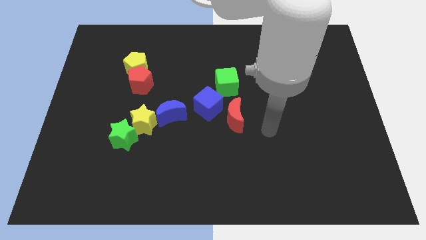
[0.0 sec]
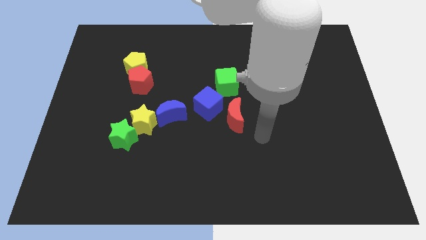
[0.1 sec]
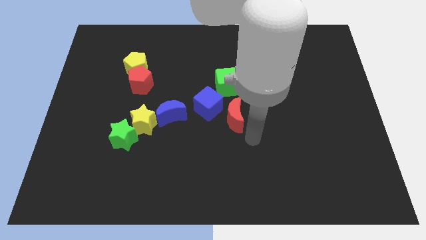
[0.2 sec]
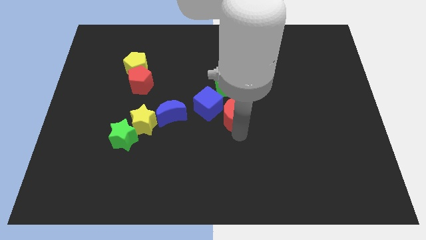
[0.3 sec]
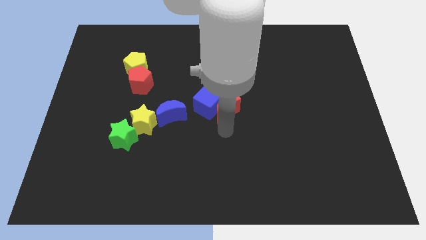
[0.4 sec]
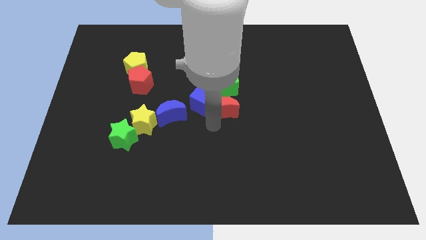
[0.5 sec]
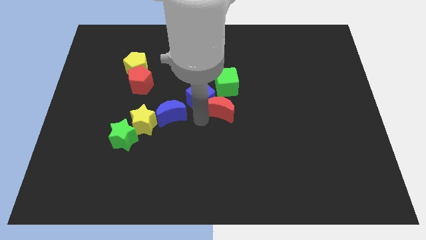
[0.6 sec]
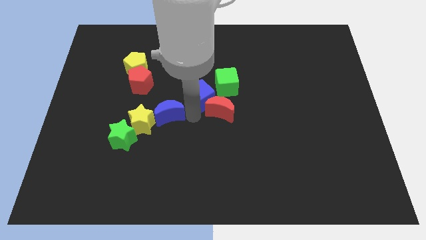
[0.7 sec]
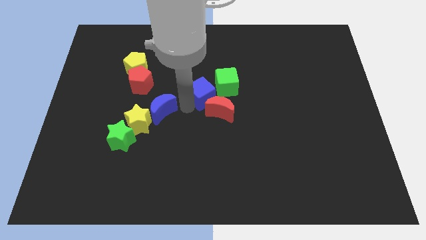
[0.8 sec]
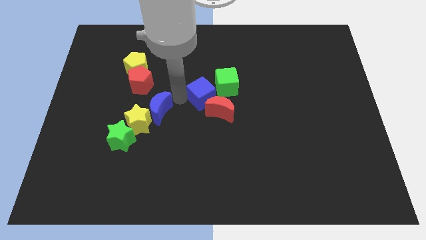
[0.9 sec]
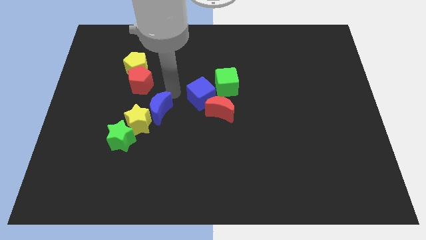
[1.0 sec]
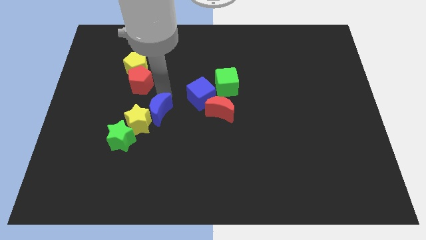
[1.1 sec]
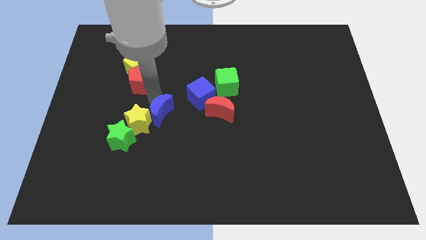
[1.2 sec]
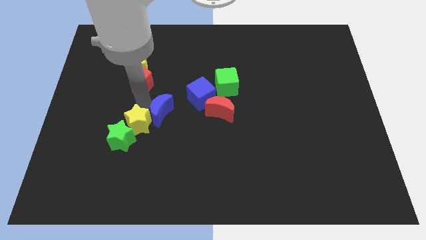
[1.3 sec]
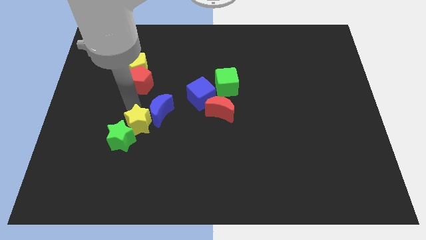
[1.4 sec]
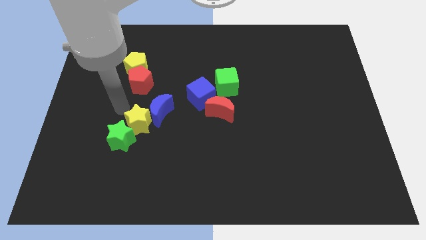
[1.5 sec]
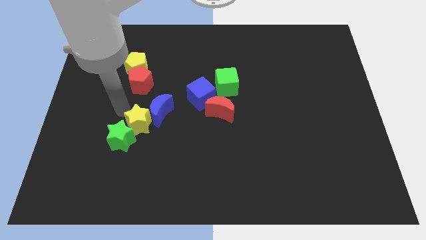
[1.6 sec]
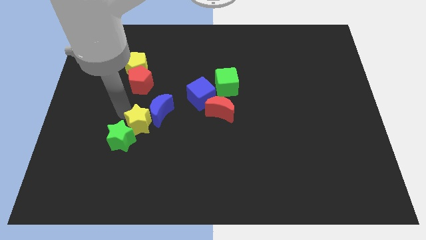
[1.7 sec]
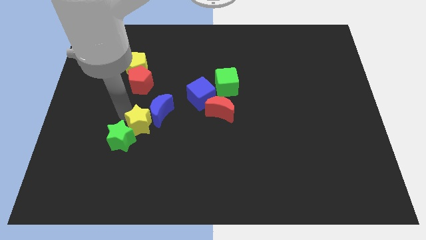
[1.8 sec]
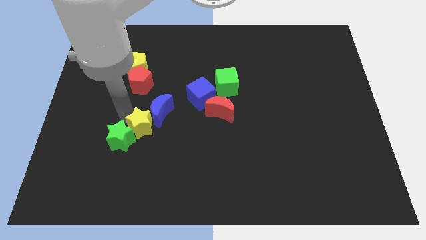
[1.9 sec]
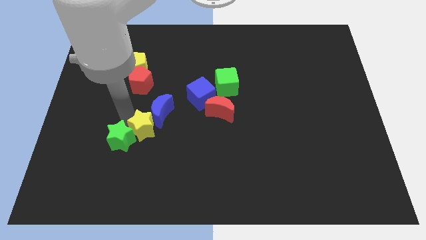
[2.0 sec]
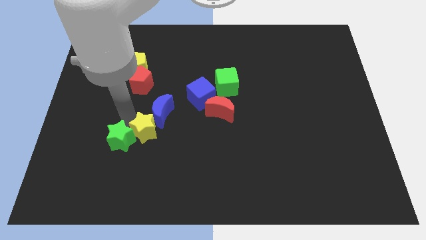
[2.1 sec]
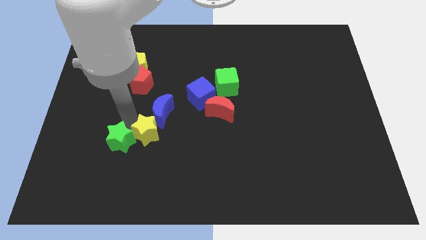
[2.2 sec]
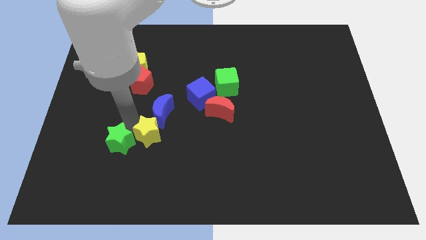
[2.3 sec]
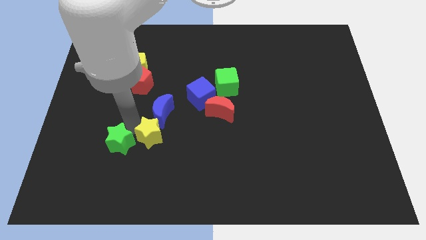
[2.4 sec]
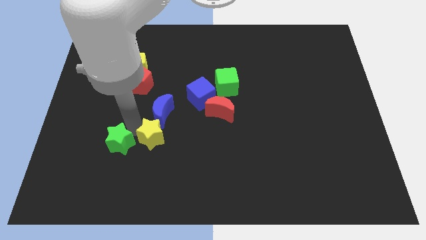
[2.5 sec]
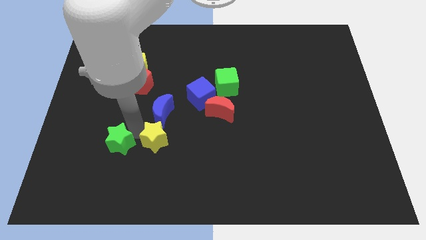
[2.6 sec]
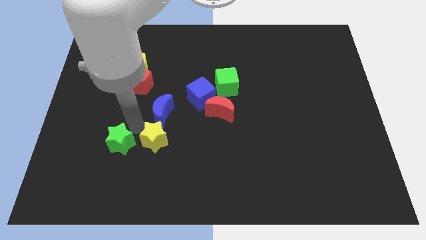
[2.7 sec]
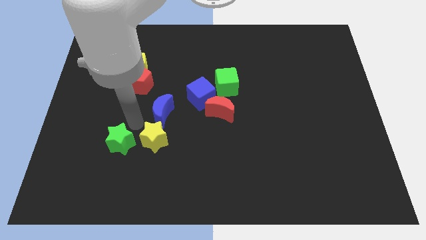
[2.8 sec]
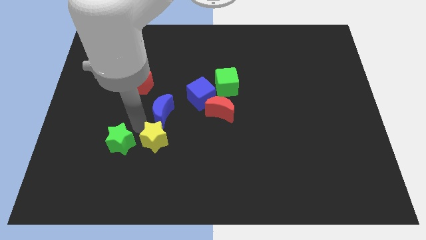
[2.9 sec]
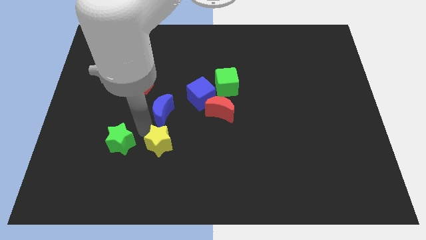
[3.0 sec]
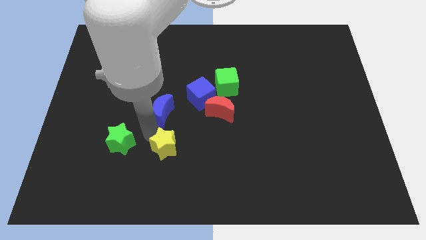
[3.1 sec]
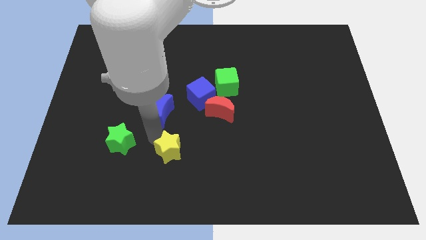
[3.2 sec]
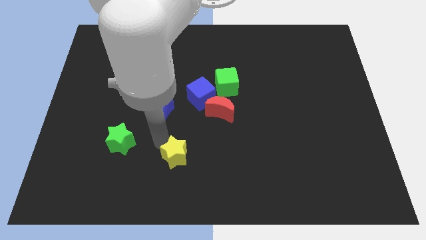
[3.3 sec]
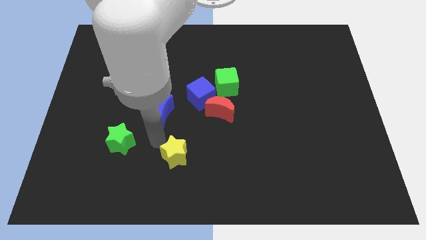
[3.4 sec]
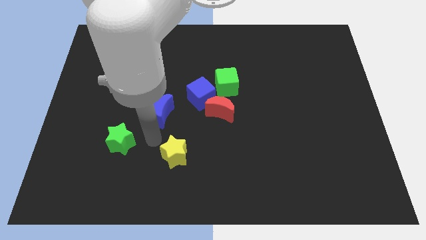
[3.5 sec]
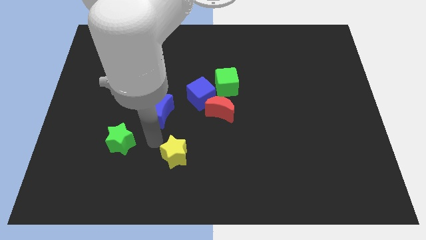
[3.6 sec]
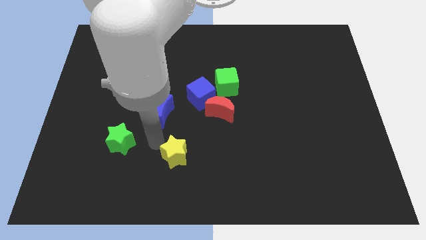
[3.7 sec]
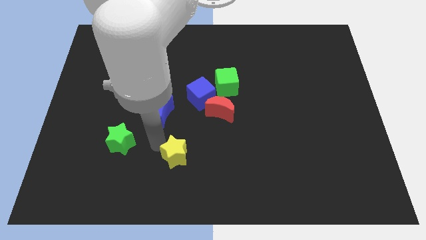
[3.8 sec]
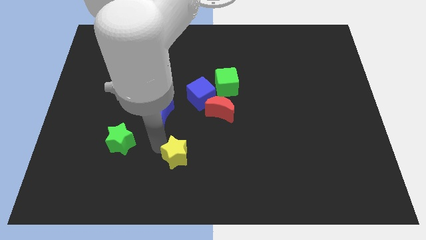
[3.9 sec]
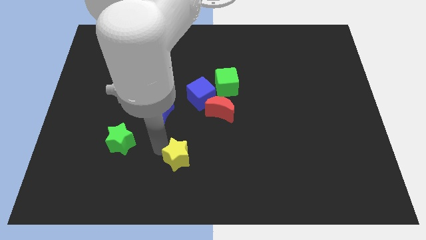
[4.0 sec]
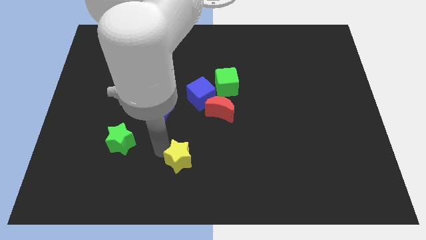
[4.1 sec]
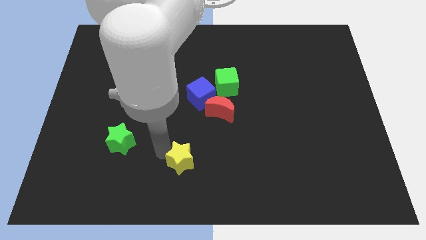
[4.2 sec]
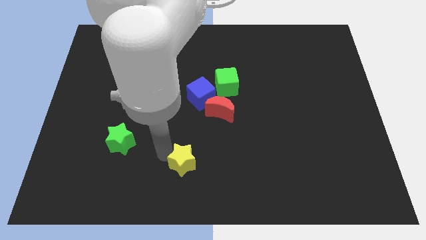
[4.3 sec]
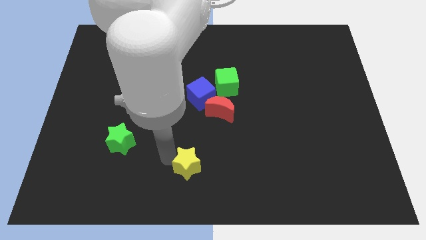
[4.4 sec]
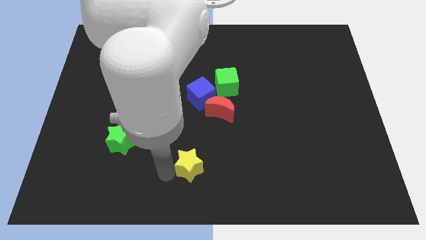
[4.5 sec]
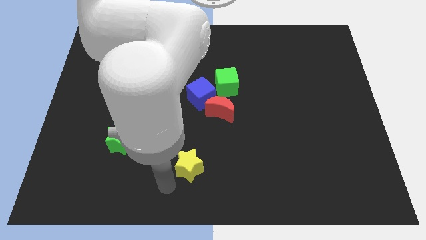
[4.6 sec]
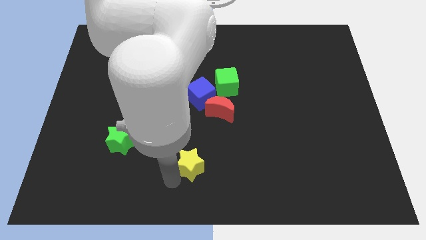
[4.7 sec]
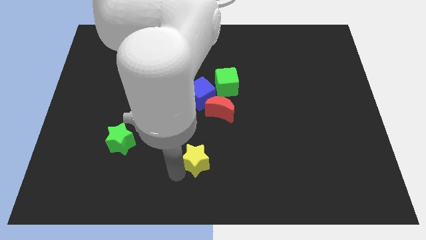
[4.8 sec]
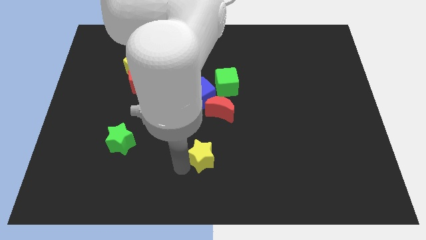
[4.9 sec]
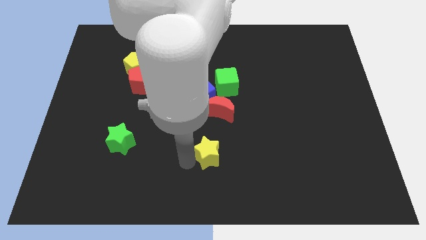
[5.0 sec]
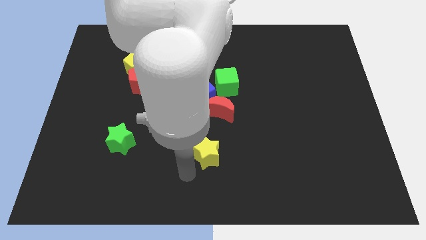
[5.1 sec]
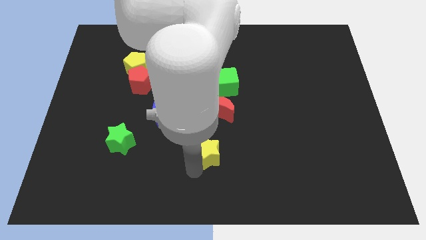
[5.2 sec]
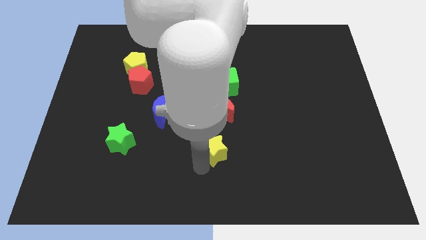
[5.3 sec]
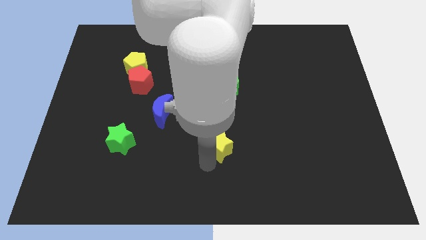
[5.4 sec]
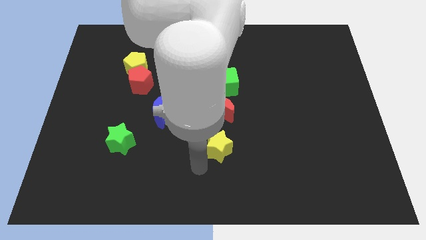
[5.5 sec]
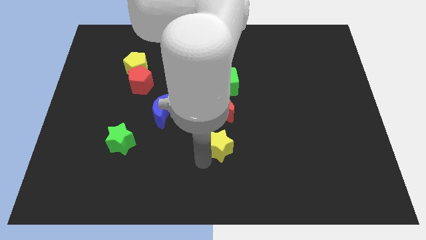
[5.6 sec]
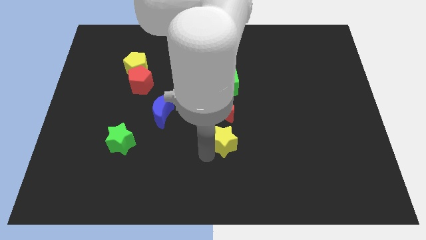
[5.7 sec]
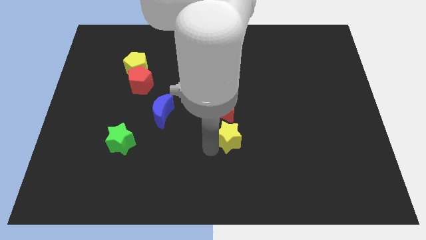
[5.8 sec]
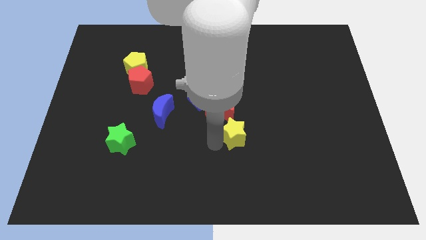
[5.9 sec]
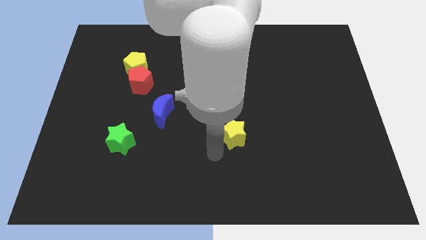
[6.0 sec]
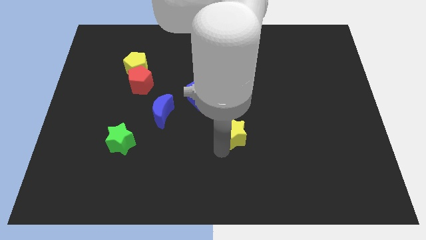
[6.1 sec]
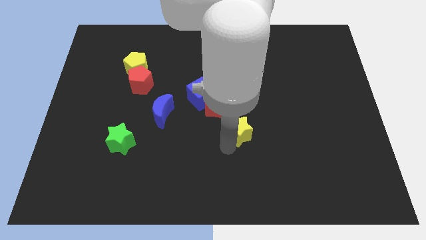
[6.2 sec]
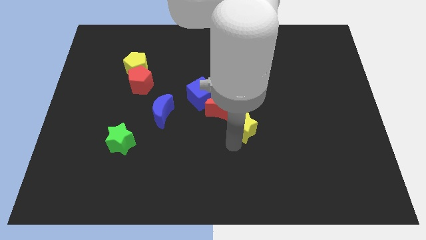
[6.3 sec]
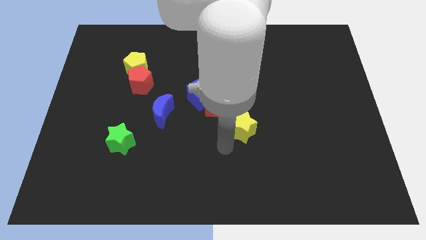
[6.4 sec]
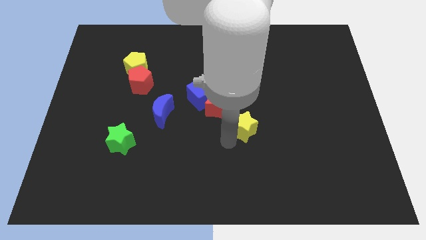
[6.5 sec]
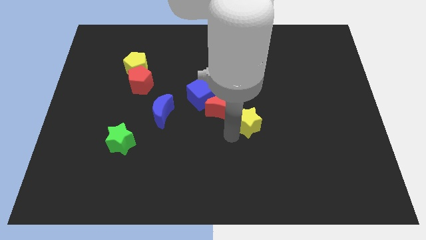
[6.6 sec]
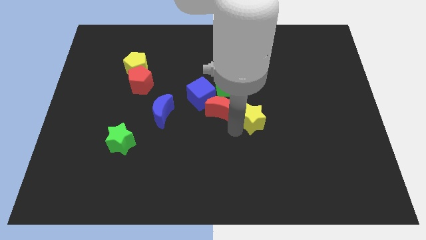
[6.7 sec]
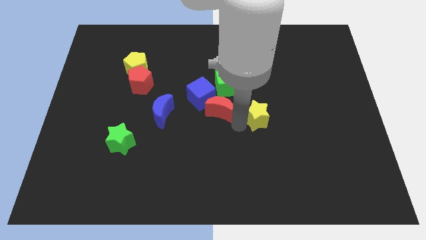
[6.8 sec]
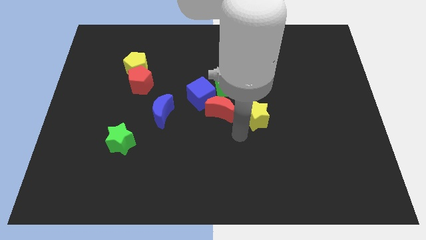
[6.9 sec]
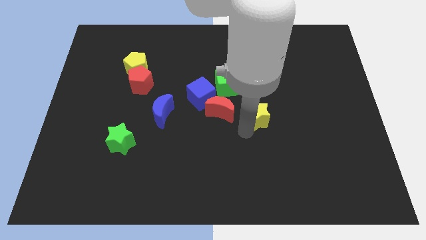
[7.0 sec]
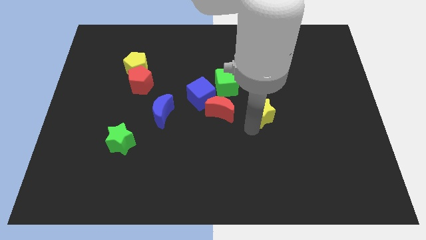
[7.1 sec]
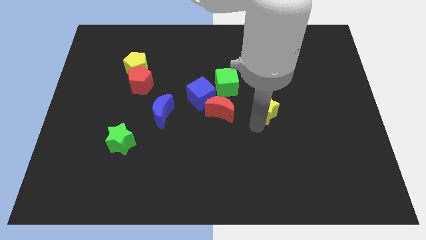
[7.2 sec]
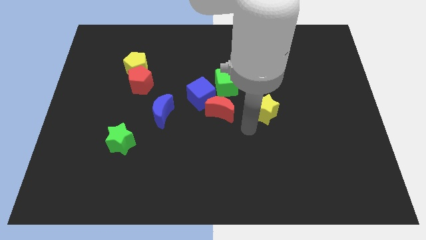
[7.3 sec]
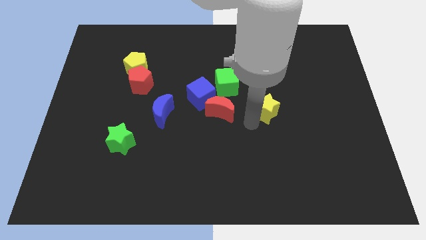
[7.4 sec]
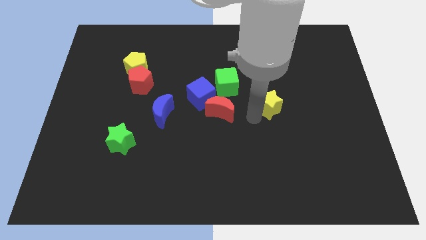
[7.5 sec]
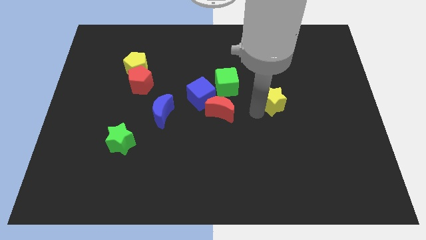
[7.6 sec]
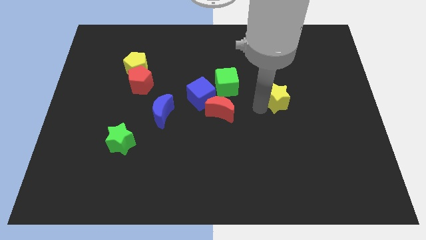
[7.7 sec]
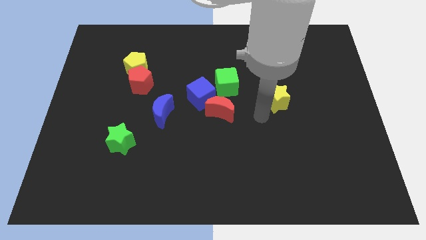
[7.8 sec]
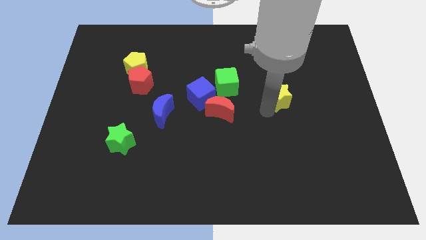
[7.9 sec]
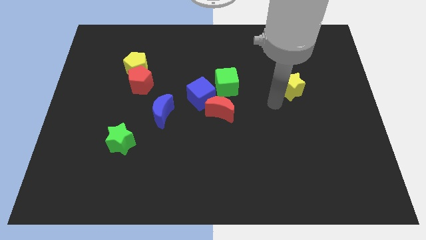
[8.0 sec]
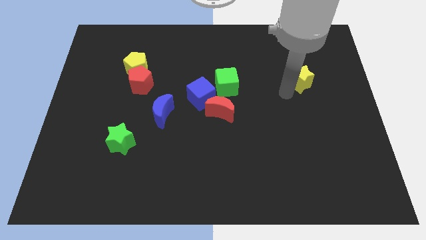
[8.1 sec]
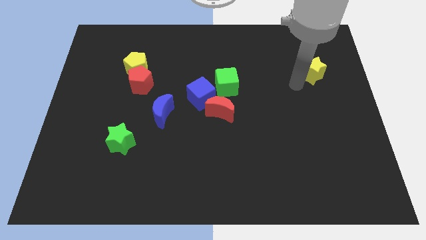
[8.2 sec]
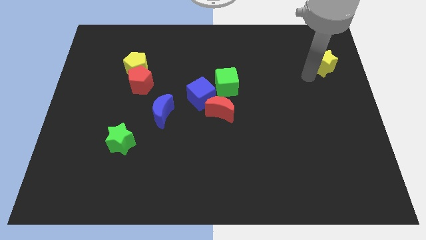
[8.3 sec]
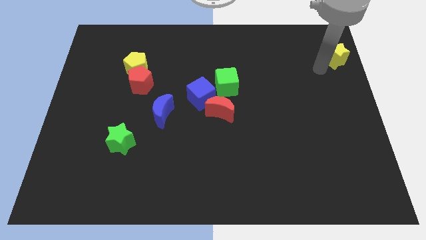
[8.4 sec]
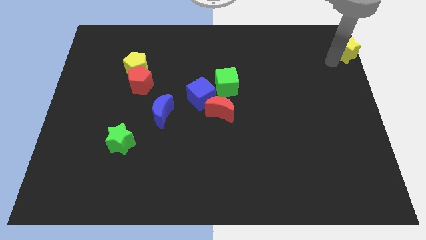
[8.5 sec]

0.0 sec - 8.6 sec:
move the yellow star to the top right of the board
